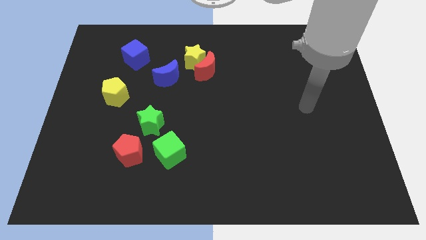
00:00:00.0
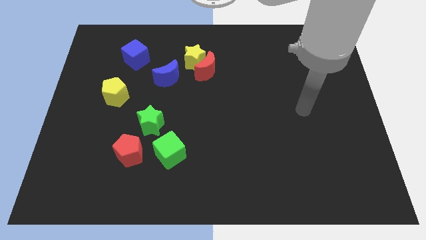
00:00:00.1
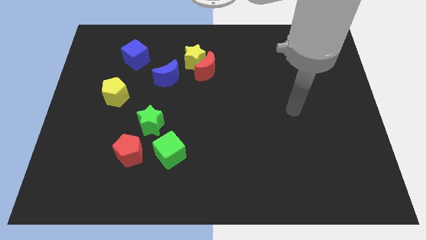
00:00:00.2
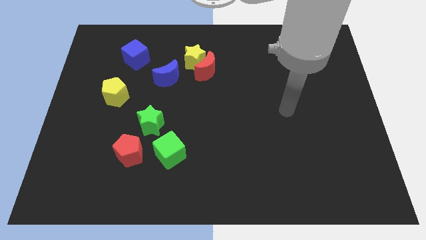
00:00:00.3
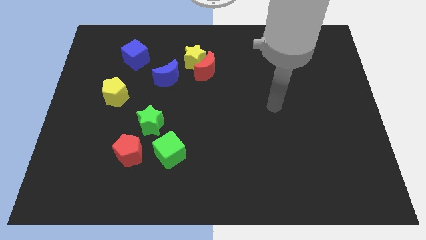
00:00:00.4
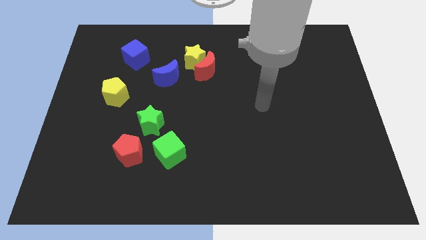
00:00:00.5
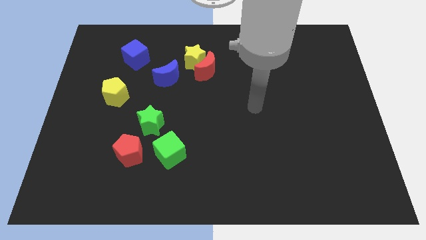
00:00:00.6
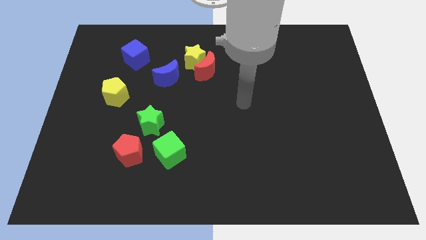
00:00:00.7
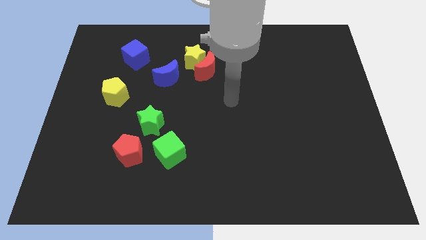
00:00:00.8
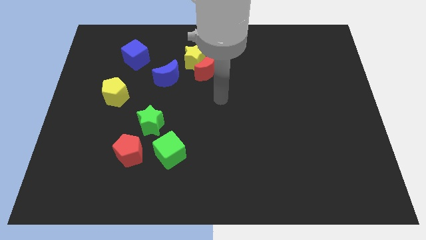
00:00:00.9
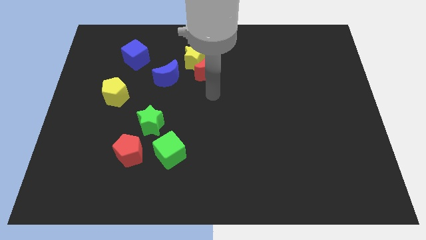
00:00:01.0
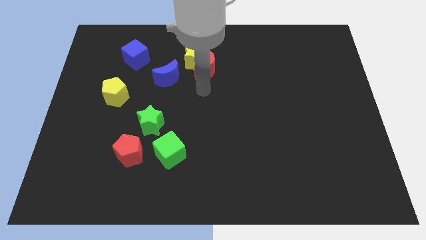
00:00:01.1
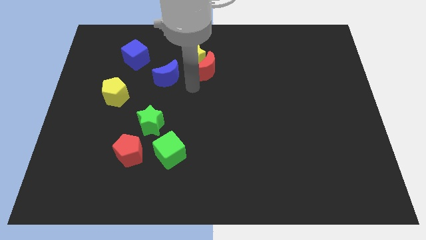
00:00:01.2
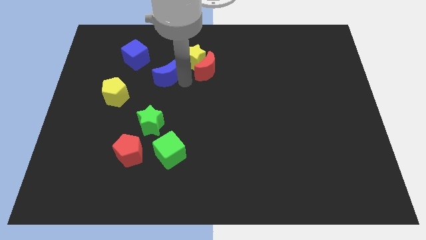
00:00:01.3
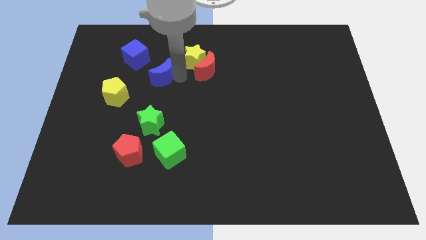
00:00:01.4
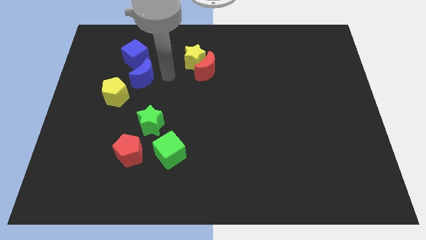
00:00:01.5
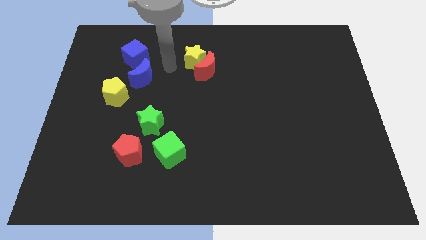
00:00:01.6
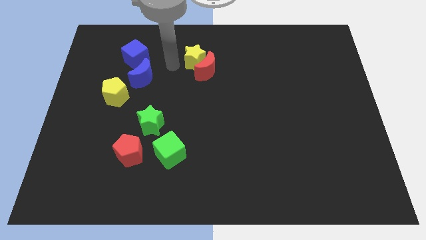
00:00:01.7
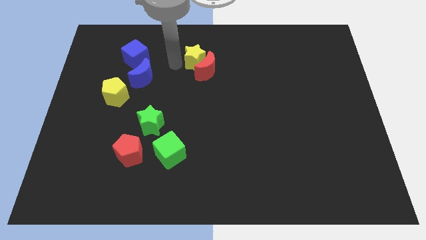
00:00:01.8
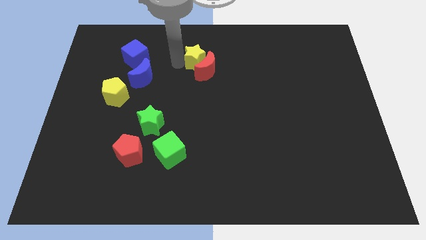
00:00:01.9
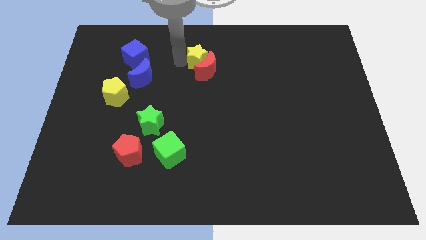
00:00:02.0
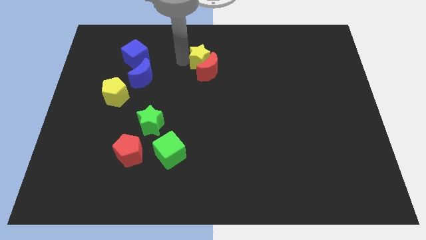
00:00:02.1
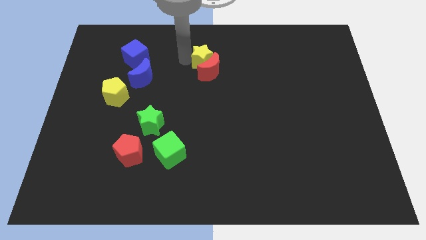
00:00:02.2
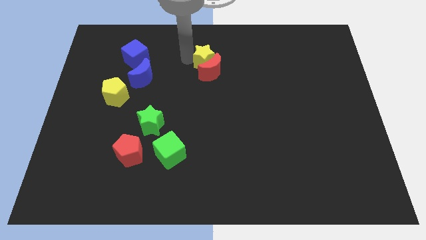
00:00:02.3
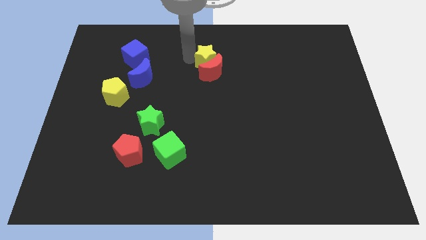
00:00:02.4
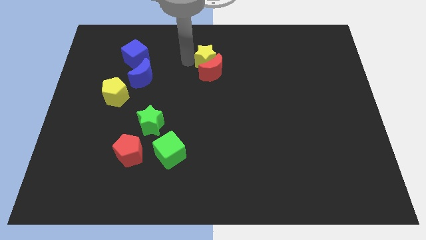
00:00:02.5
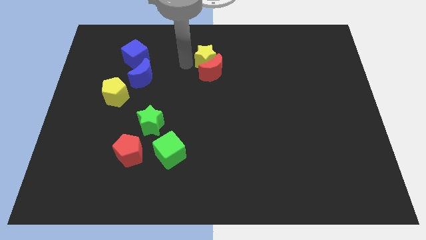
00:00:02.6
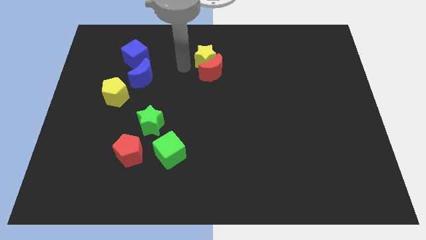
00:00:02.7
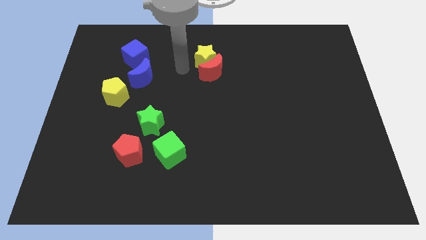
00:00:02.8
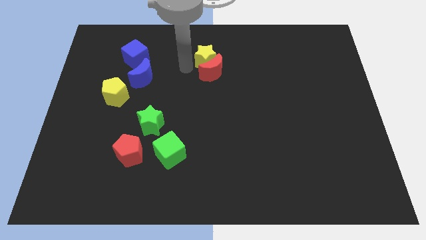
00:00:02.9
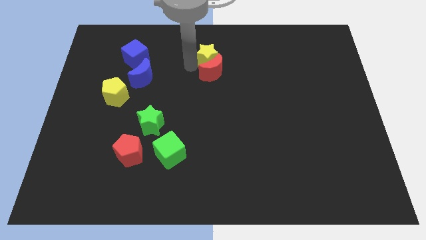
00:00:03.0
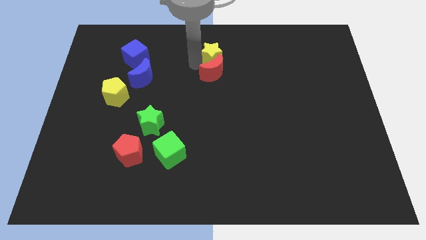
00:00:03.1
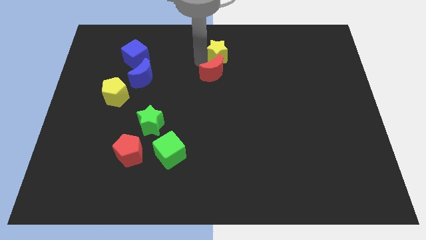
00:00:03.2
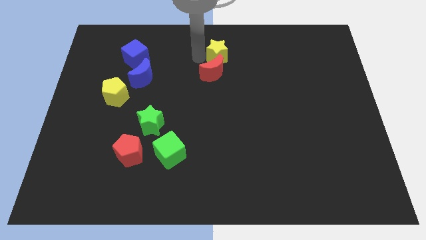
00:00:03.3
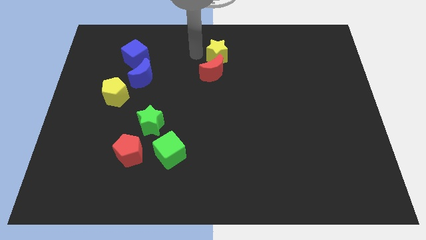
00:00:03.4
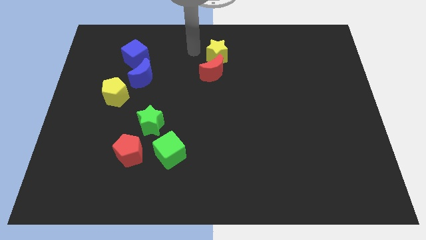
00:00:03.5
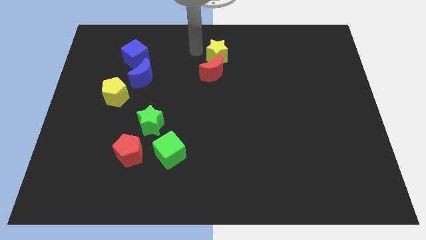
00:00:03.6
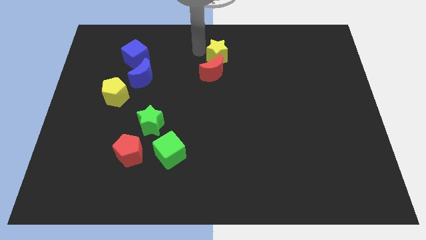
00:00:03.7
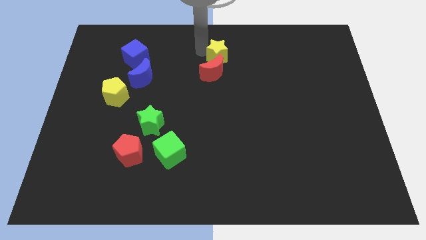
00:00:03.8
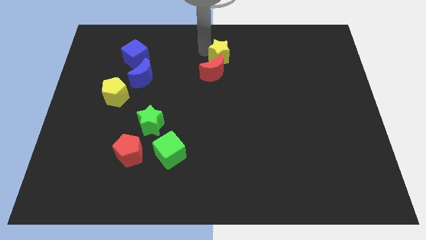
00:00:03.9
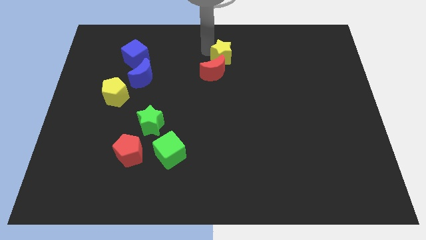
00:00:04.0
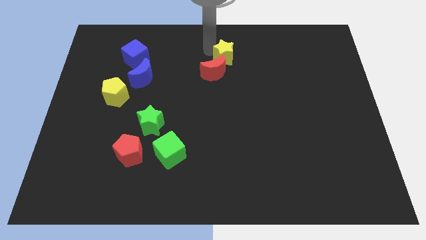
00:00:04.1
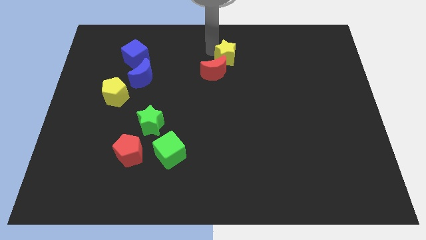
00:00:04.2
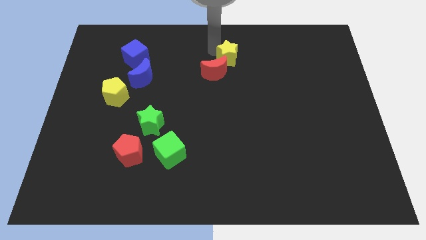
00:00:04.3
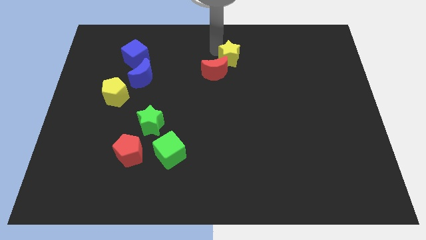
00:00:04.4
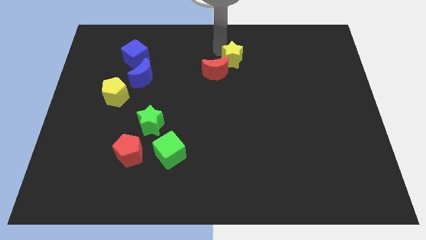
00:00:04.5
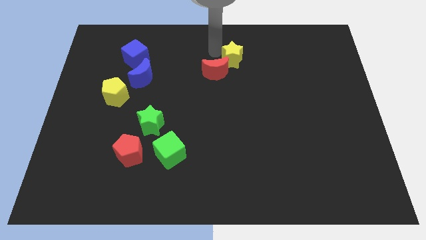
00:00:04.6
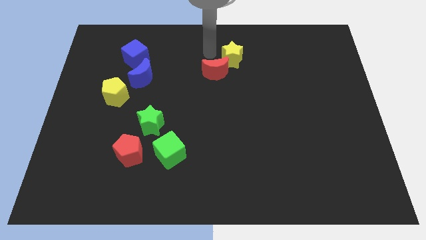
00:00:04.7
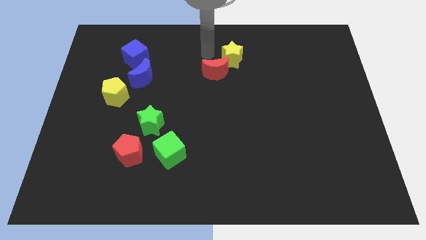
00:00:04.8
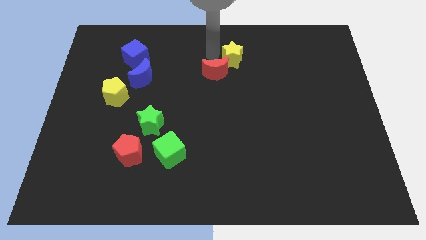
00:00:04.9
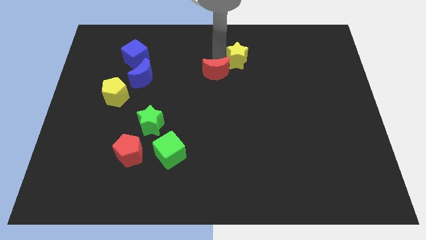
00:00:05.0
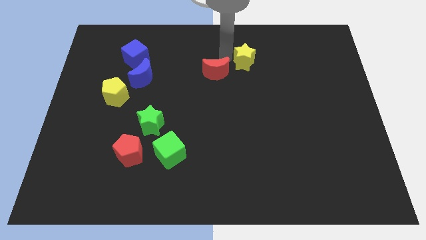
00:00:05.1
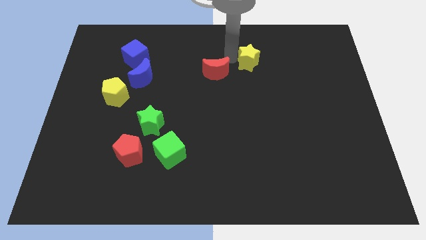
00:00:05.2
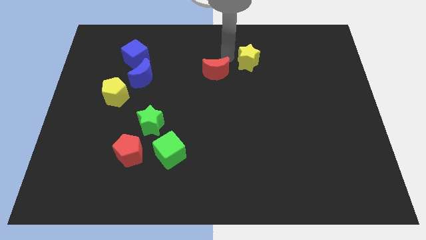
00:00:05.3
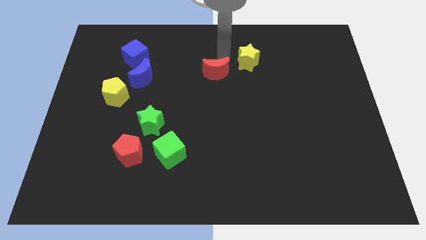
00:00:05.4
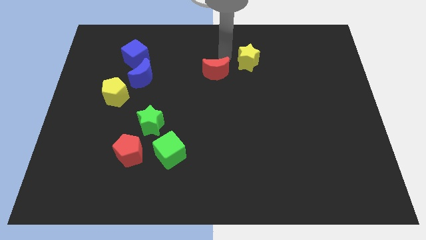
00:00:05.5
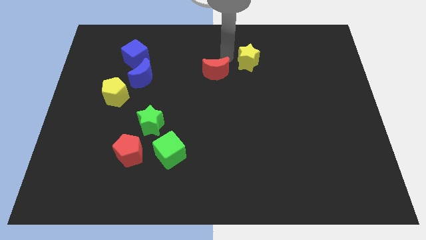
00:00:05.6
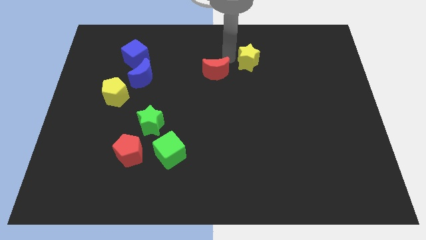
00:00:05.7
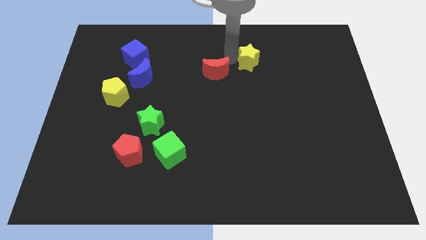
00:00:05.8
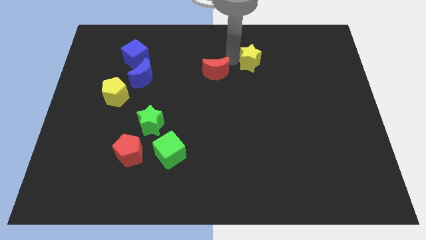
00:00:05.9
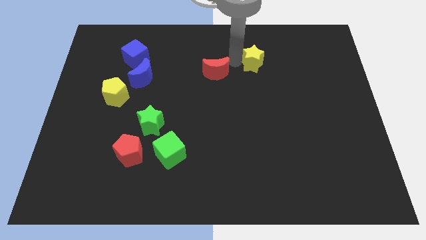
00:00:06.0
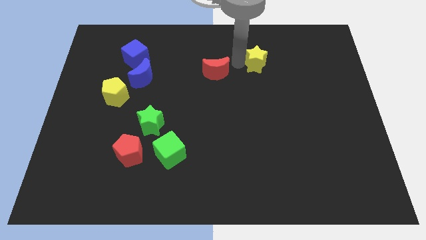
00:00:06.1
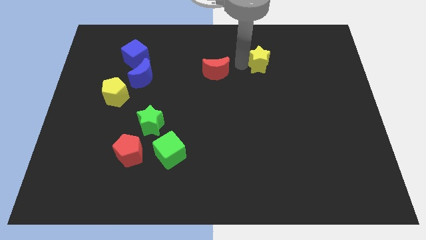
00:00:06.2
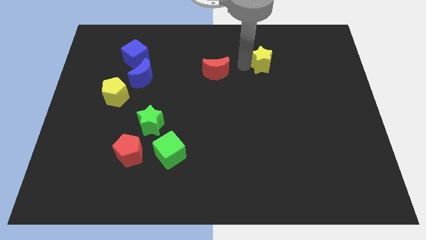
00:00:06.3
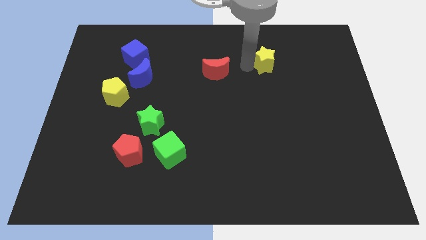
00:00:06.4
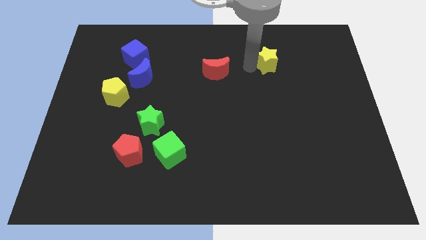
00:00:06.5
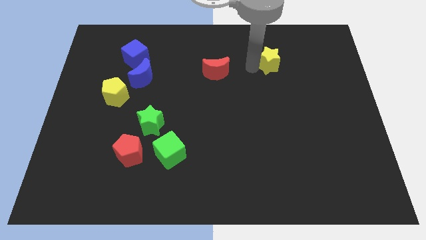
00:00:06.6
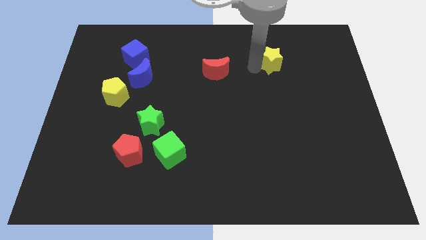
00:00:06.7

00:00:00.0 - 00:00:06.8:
move the yellow star right

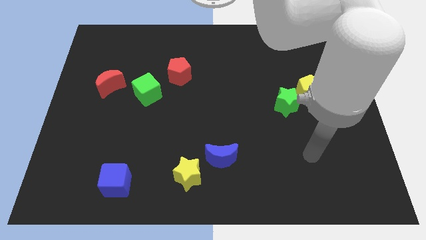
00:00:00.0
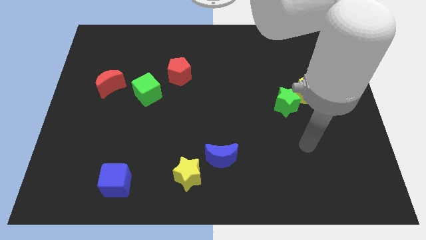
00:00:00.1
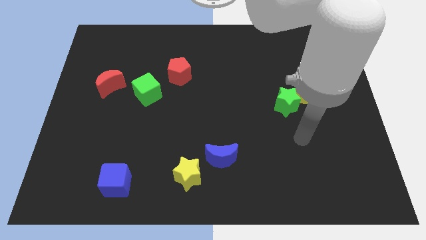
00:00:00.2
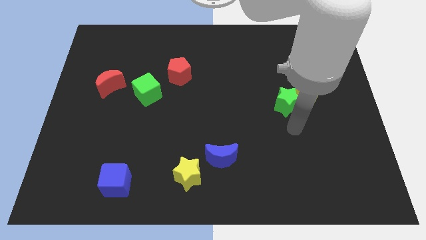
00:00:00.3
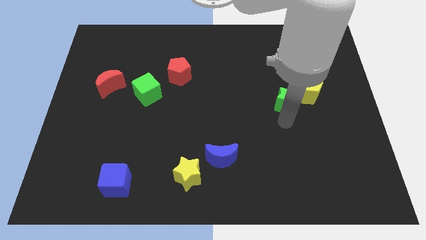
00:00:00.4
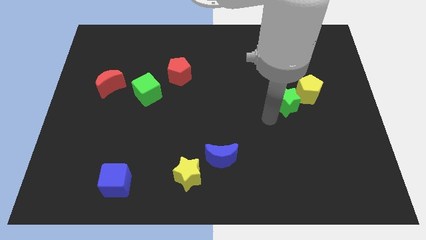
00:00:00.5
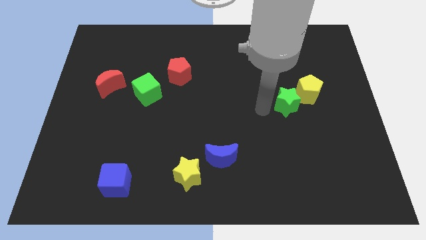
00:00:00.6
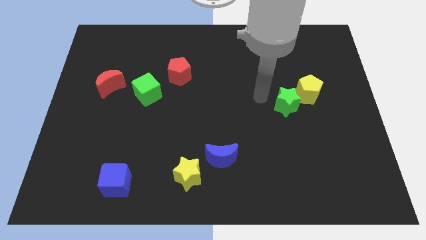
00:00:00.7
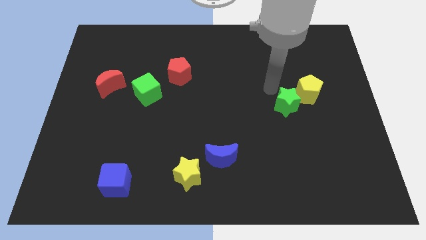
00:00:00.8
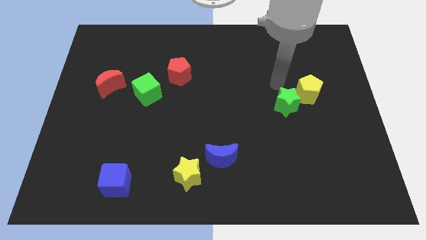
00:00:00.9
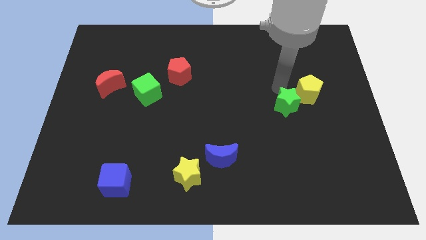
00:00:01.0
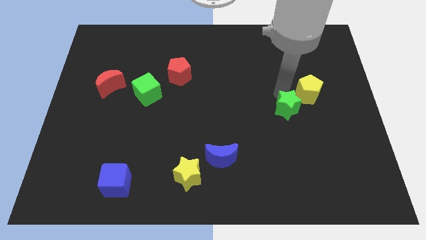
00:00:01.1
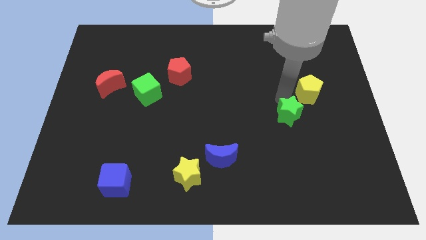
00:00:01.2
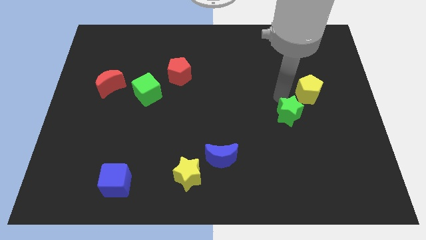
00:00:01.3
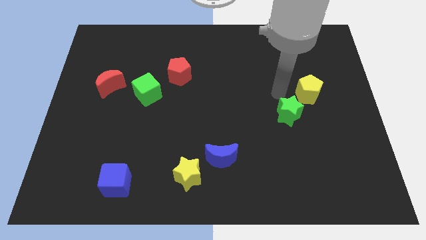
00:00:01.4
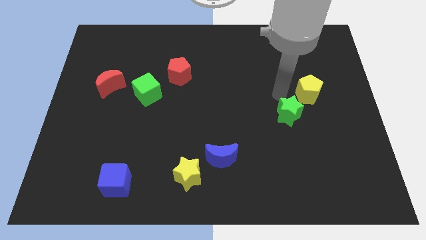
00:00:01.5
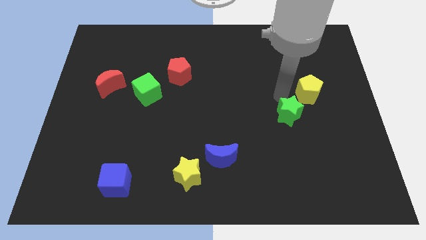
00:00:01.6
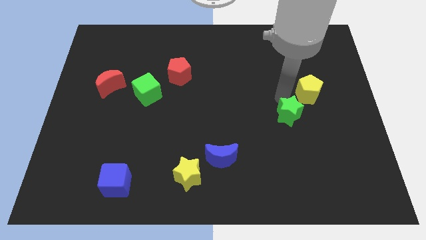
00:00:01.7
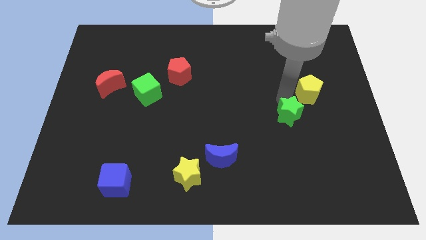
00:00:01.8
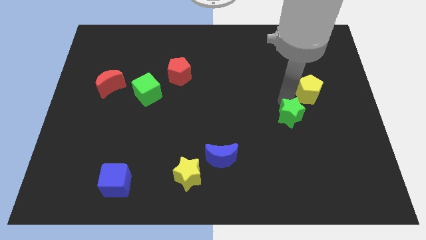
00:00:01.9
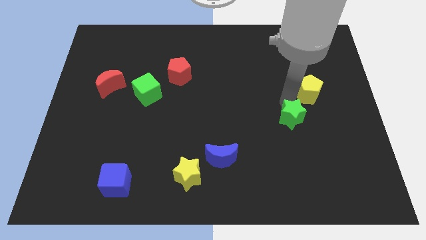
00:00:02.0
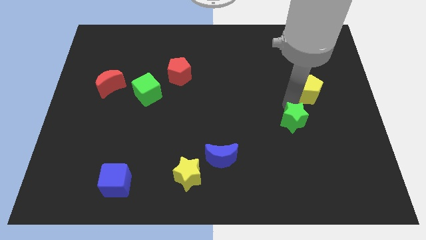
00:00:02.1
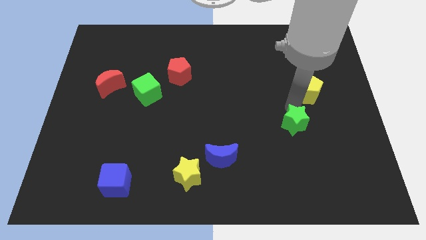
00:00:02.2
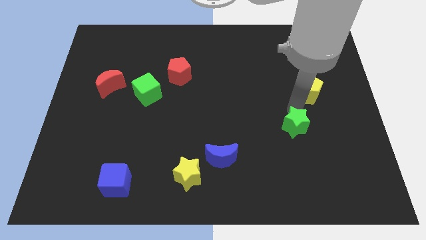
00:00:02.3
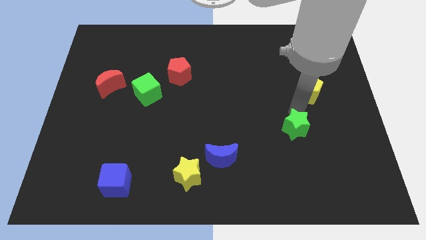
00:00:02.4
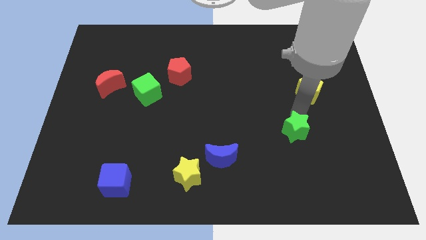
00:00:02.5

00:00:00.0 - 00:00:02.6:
slightly push the green star down
